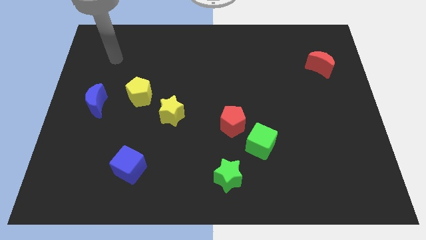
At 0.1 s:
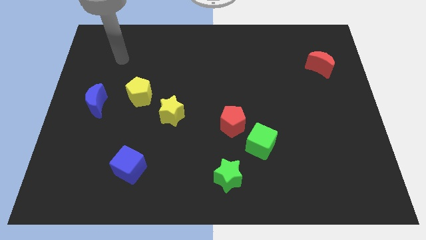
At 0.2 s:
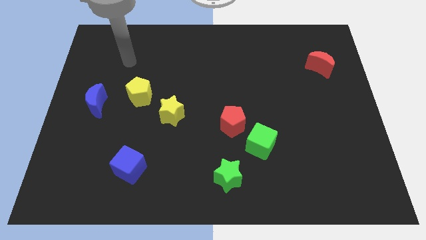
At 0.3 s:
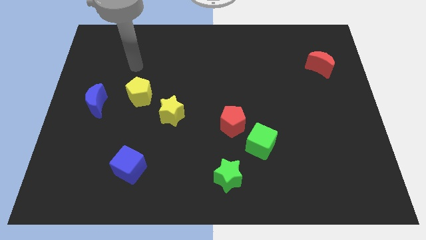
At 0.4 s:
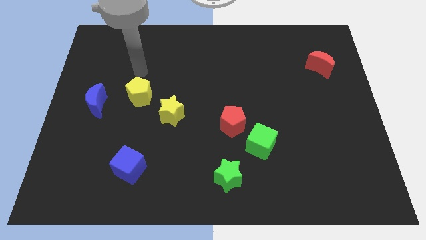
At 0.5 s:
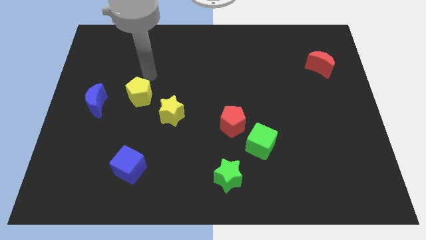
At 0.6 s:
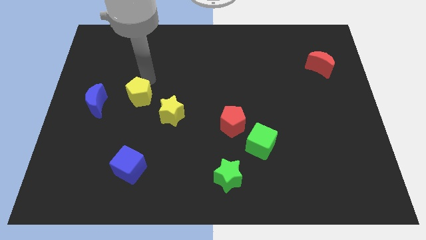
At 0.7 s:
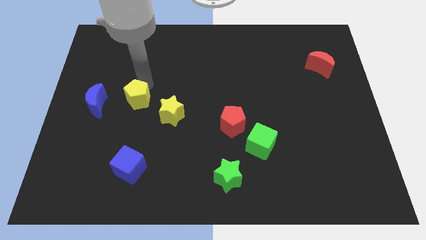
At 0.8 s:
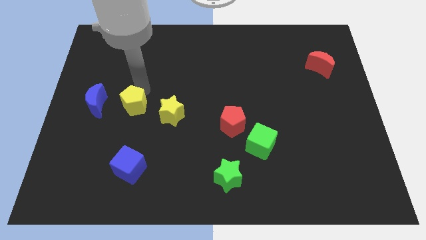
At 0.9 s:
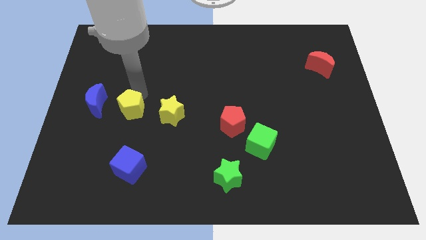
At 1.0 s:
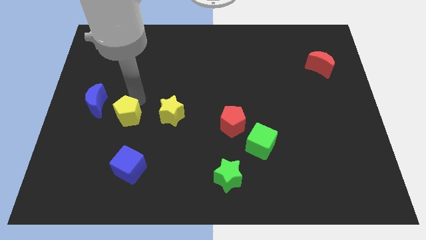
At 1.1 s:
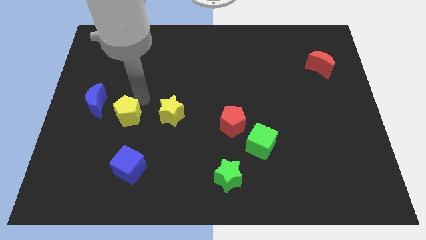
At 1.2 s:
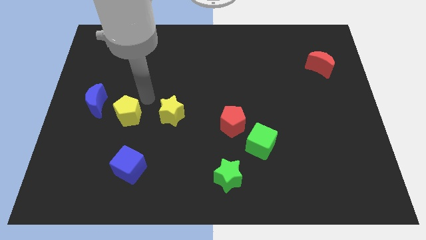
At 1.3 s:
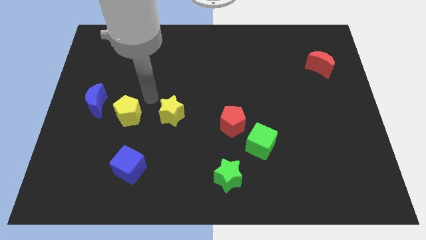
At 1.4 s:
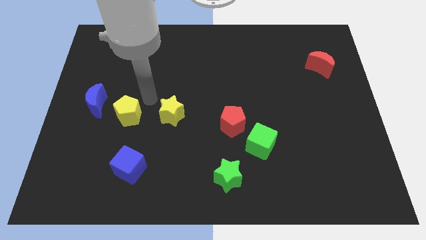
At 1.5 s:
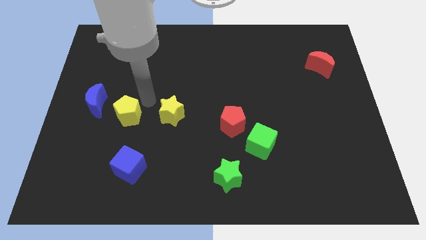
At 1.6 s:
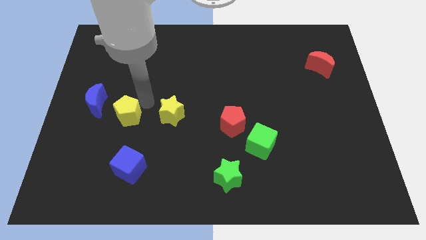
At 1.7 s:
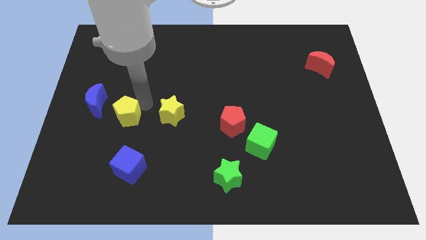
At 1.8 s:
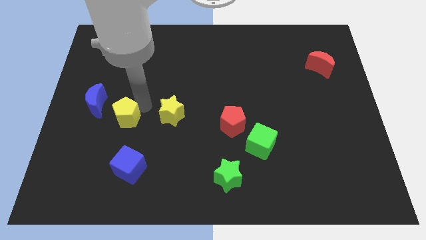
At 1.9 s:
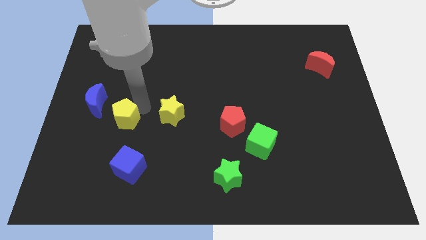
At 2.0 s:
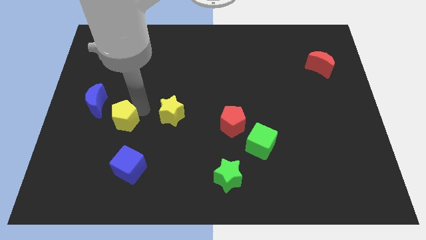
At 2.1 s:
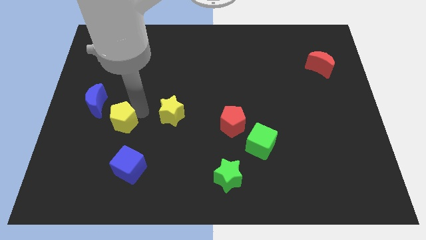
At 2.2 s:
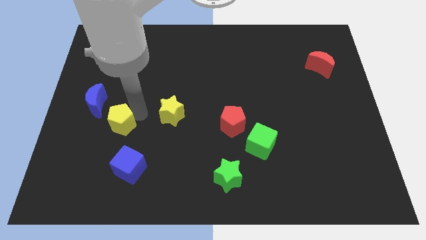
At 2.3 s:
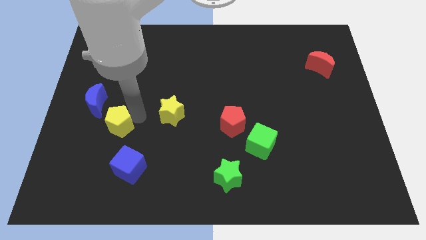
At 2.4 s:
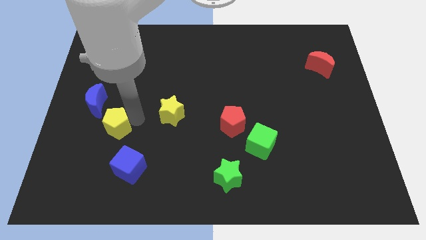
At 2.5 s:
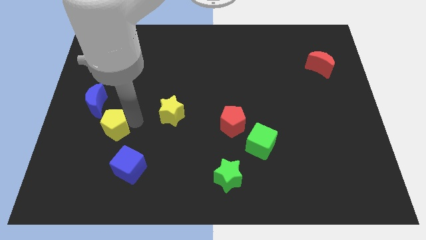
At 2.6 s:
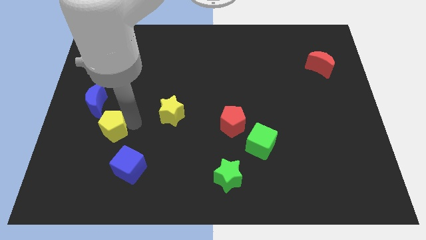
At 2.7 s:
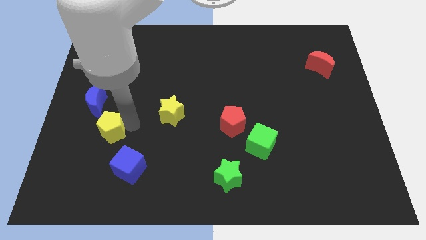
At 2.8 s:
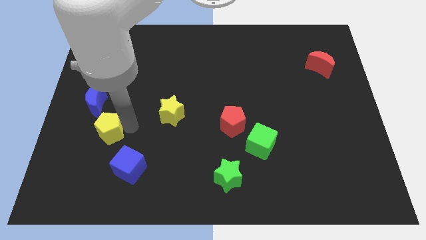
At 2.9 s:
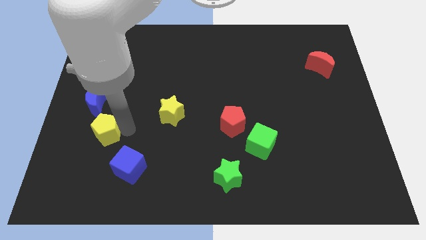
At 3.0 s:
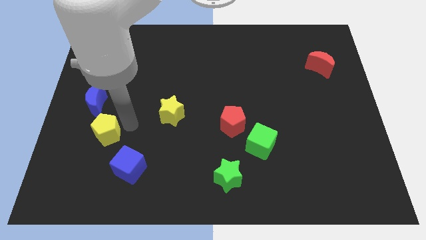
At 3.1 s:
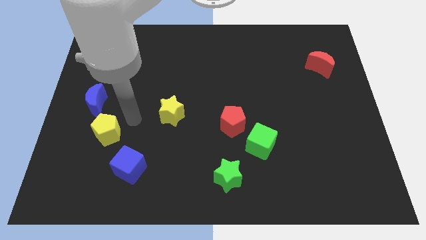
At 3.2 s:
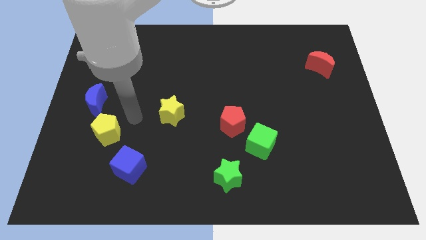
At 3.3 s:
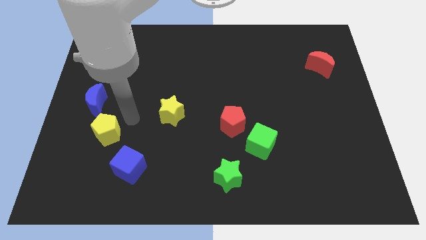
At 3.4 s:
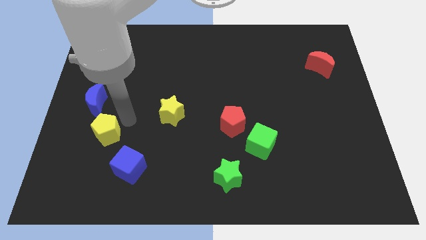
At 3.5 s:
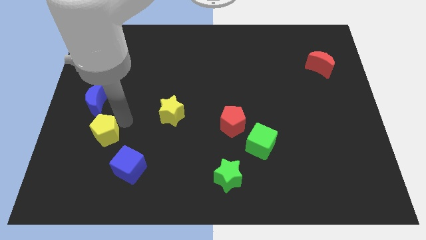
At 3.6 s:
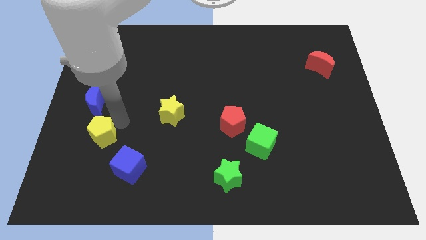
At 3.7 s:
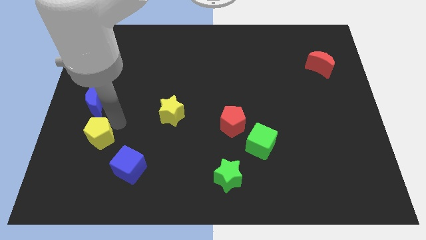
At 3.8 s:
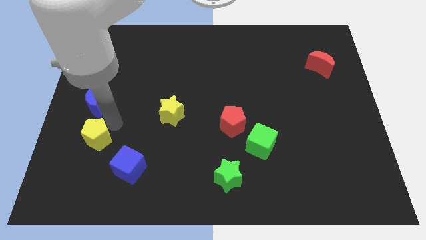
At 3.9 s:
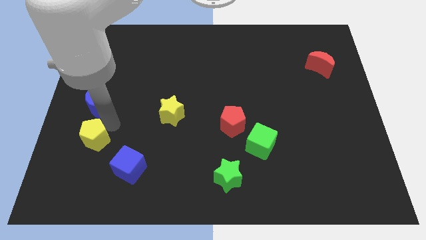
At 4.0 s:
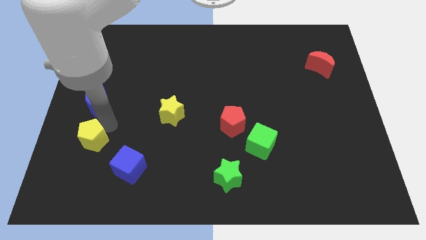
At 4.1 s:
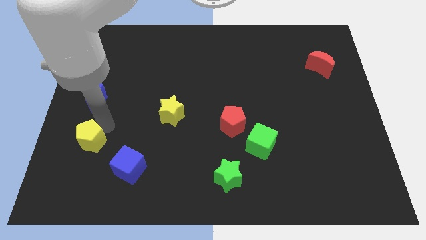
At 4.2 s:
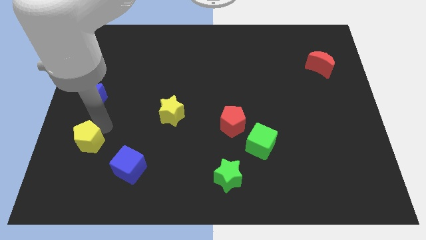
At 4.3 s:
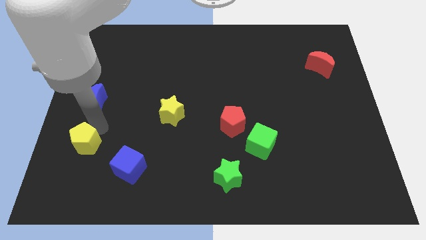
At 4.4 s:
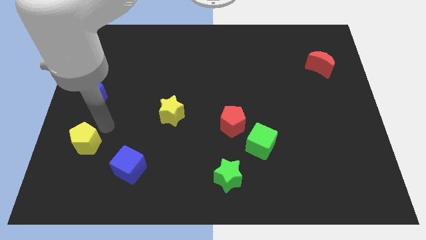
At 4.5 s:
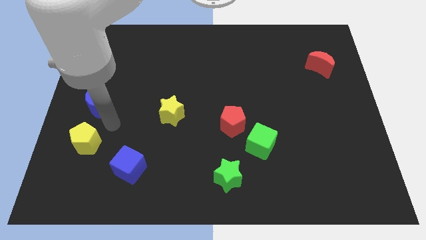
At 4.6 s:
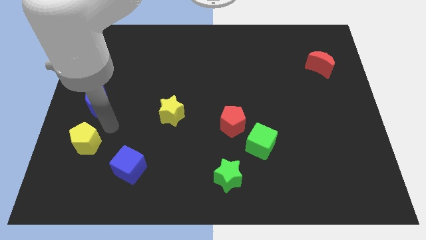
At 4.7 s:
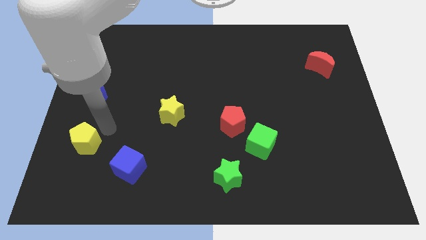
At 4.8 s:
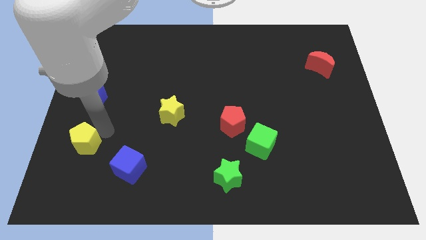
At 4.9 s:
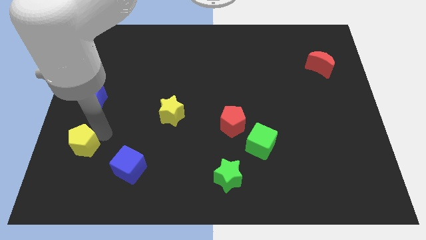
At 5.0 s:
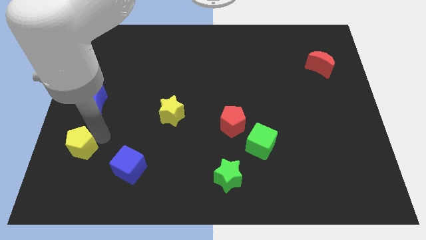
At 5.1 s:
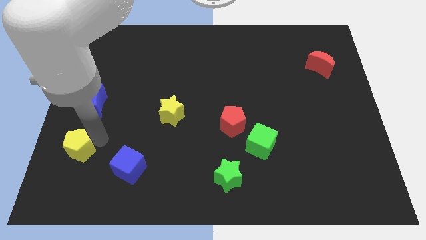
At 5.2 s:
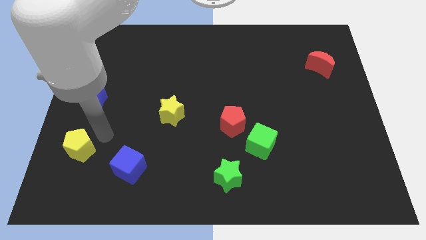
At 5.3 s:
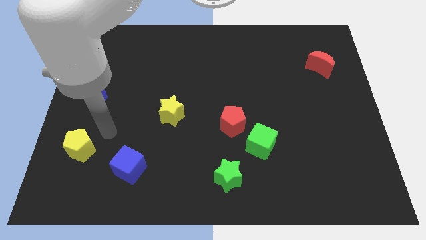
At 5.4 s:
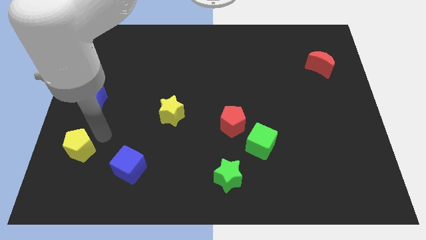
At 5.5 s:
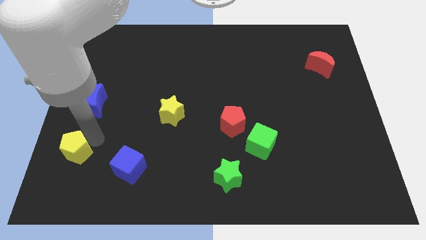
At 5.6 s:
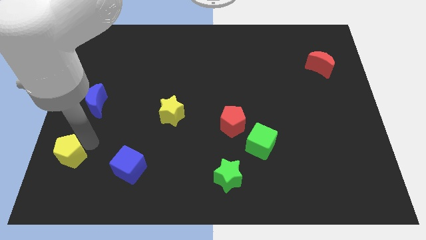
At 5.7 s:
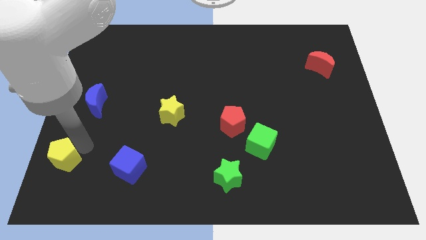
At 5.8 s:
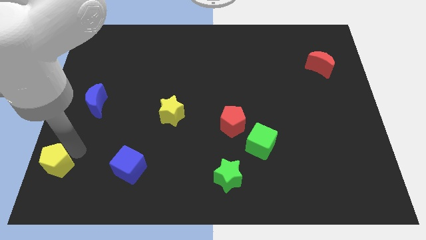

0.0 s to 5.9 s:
slide the yellow pentagon to the bottom left

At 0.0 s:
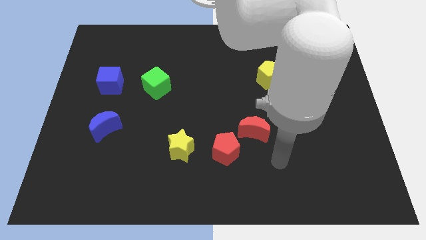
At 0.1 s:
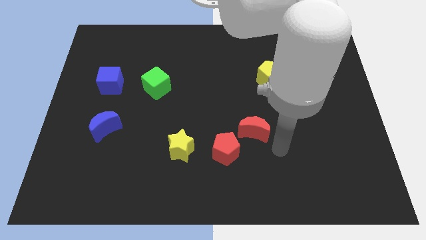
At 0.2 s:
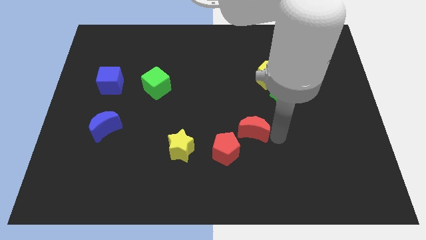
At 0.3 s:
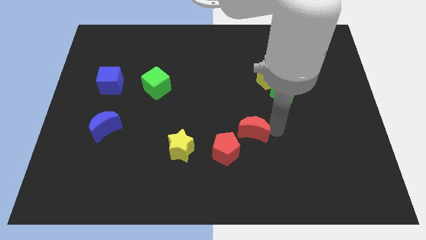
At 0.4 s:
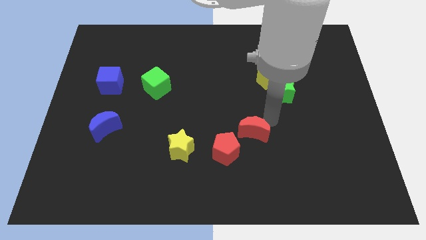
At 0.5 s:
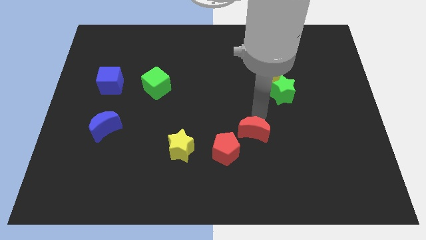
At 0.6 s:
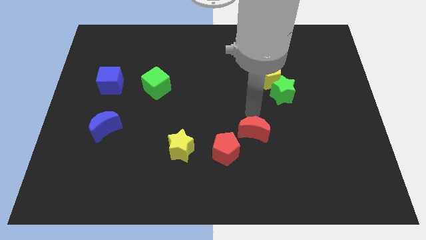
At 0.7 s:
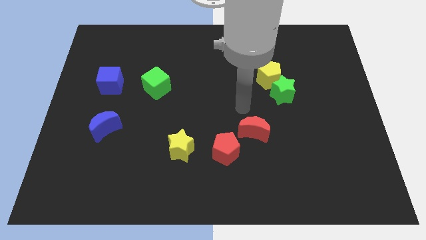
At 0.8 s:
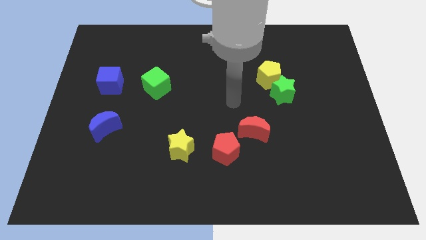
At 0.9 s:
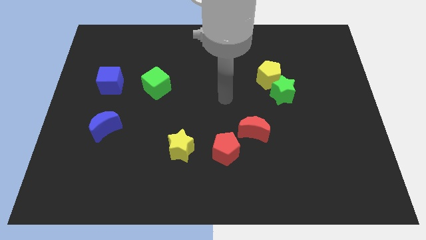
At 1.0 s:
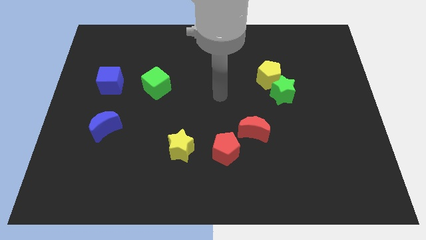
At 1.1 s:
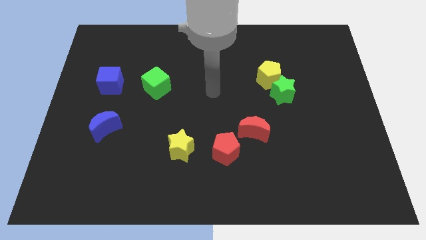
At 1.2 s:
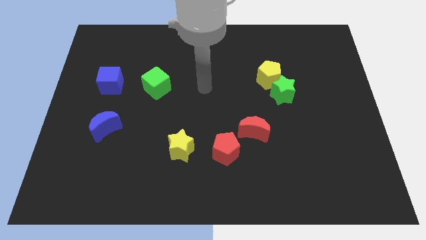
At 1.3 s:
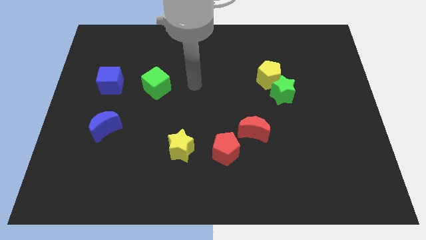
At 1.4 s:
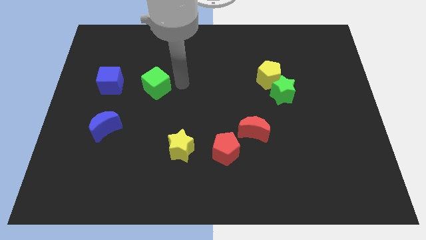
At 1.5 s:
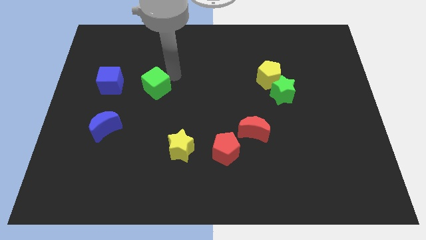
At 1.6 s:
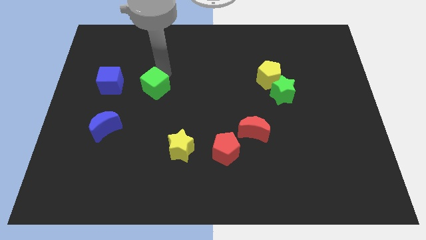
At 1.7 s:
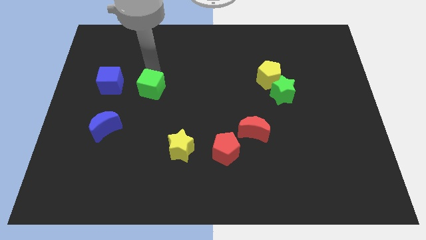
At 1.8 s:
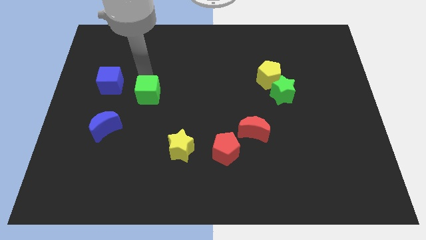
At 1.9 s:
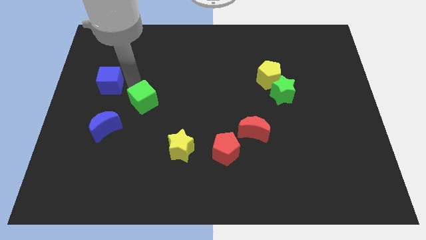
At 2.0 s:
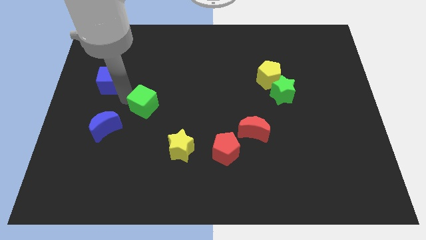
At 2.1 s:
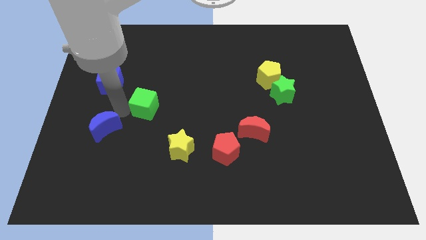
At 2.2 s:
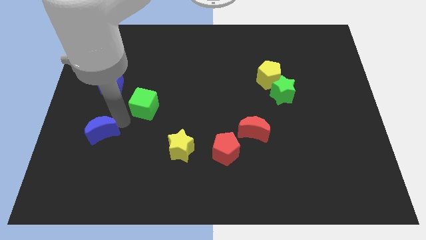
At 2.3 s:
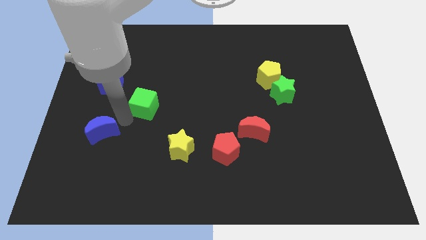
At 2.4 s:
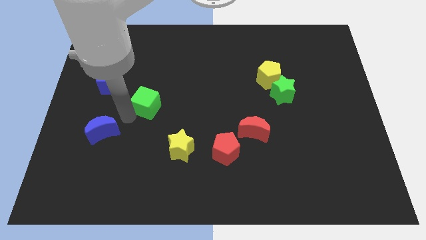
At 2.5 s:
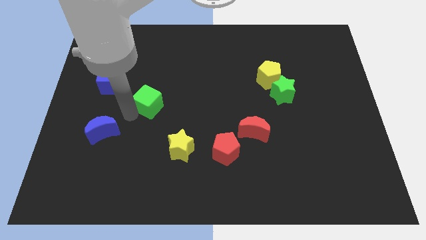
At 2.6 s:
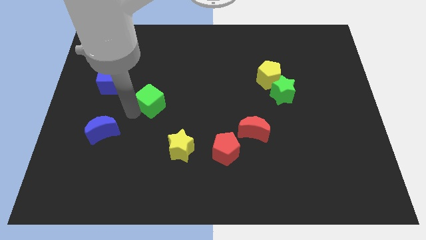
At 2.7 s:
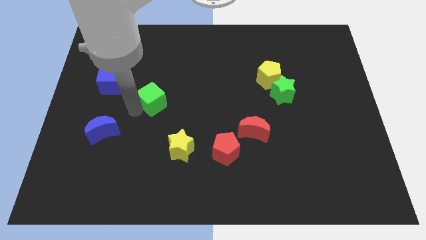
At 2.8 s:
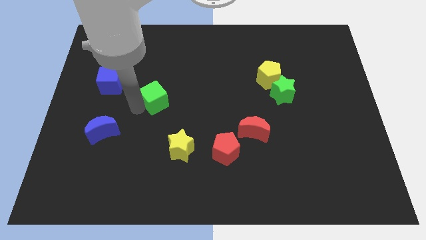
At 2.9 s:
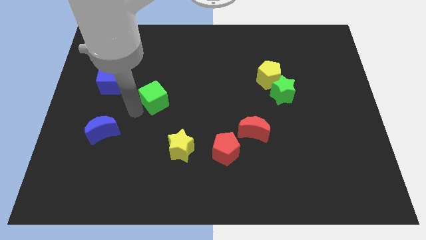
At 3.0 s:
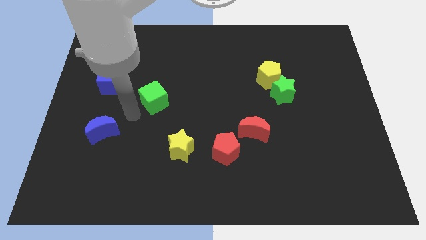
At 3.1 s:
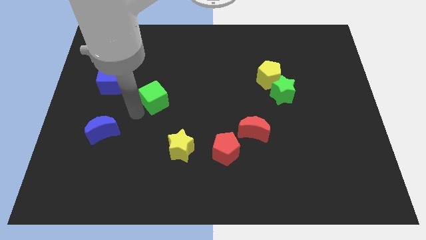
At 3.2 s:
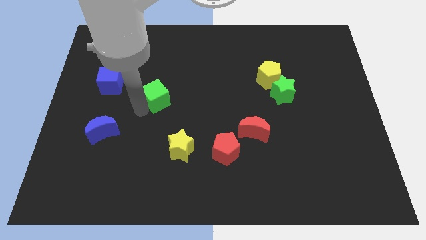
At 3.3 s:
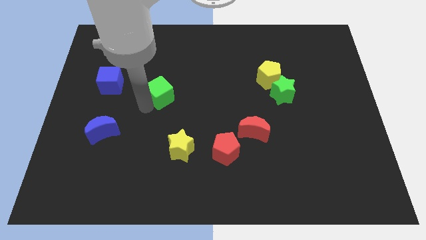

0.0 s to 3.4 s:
slide the green cube to the center
